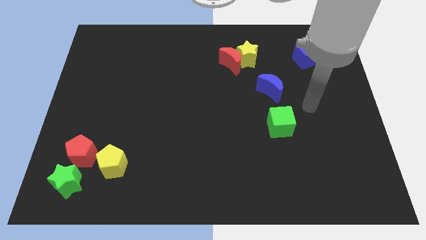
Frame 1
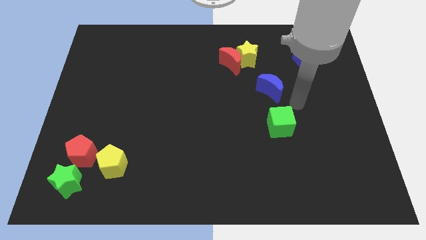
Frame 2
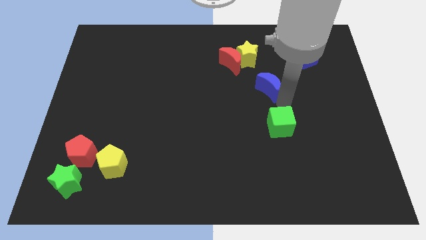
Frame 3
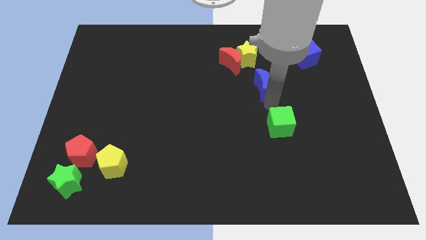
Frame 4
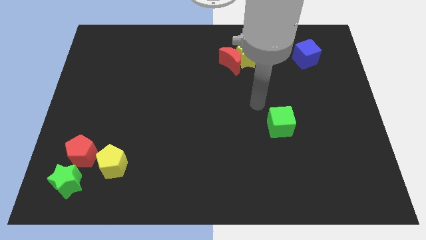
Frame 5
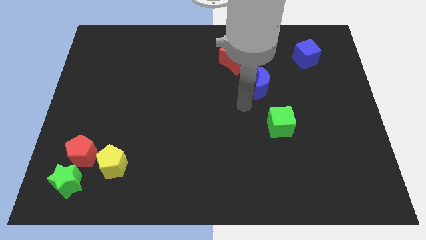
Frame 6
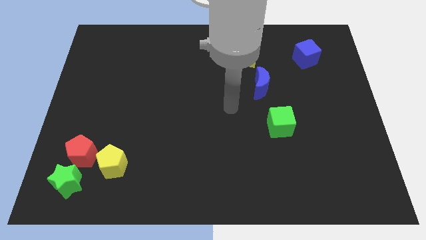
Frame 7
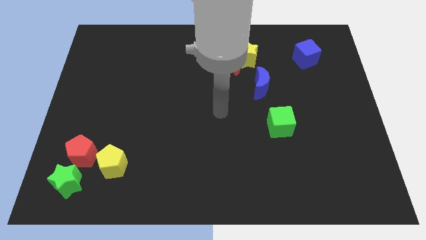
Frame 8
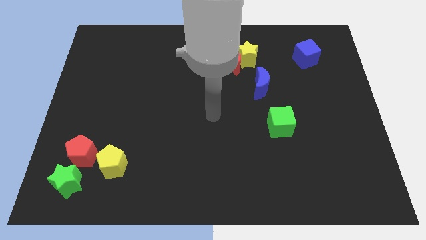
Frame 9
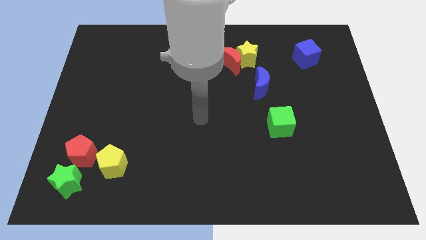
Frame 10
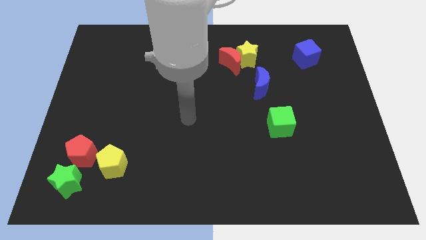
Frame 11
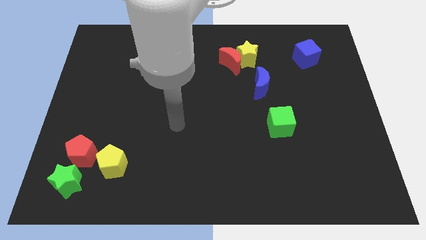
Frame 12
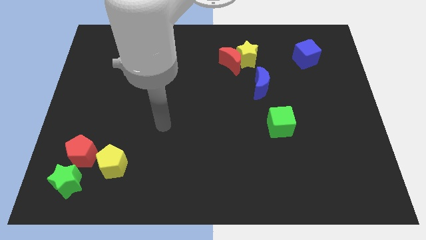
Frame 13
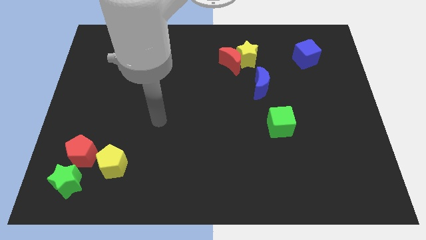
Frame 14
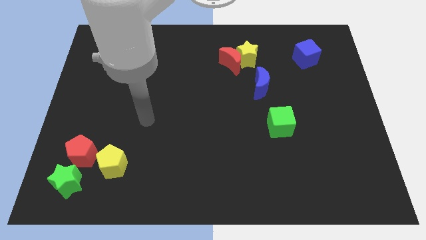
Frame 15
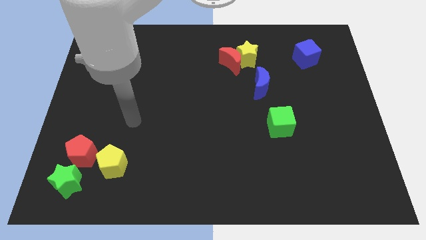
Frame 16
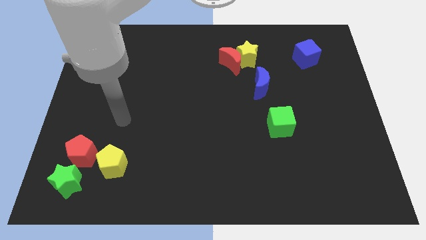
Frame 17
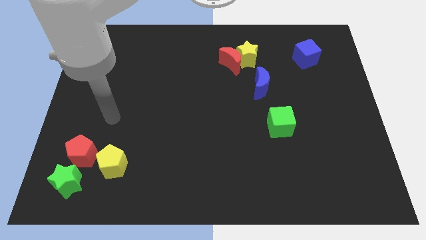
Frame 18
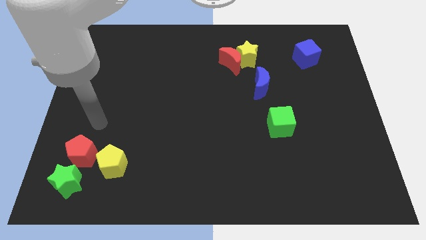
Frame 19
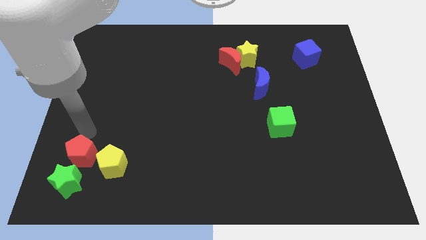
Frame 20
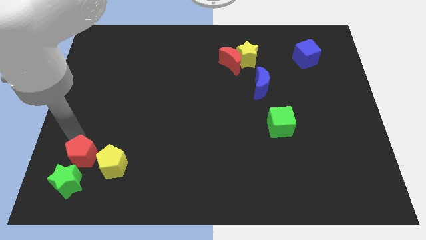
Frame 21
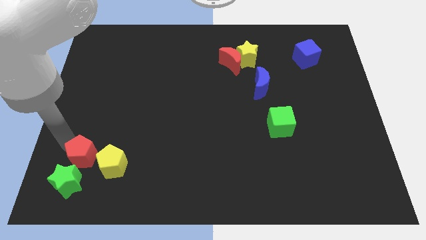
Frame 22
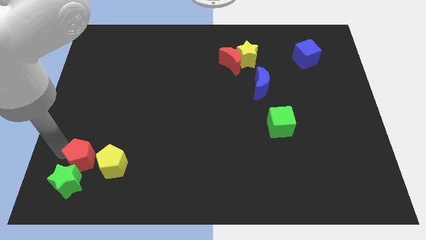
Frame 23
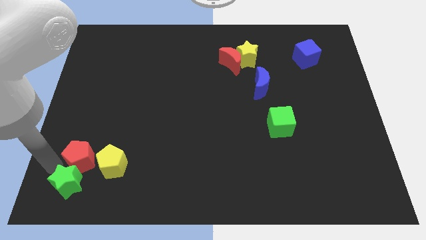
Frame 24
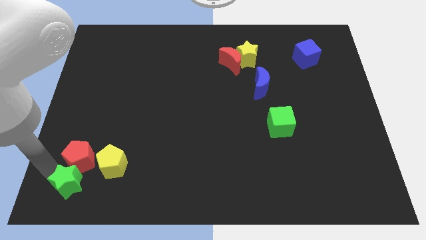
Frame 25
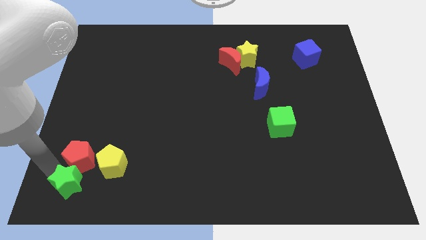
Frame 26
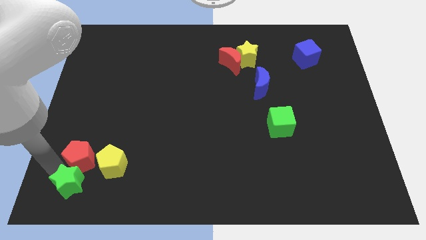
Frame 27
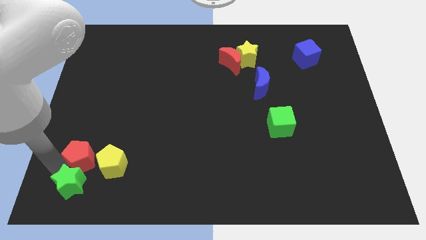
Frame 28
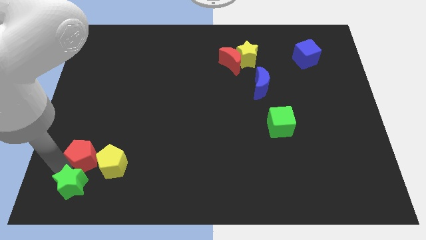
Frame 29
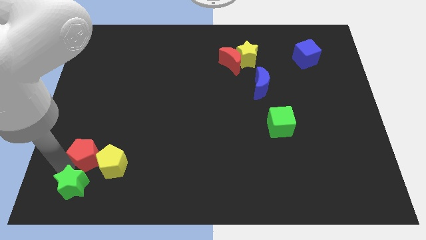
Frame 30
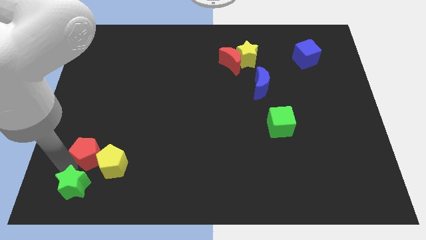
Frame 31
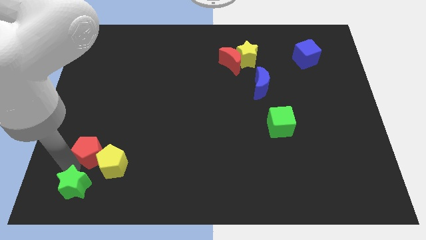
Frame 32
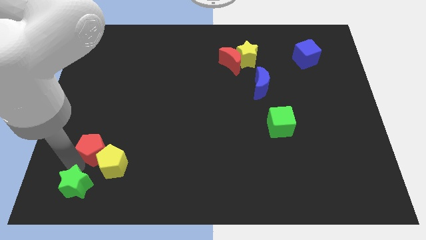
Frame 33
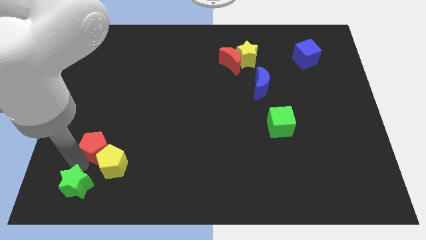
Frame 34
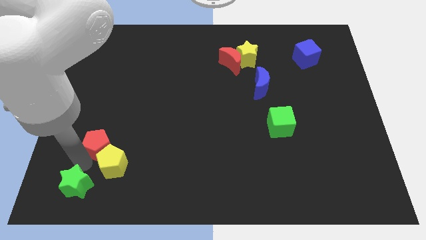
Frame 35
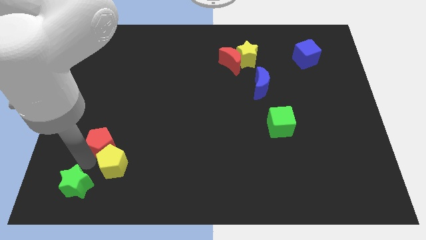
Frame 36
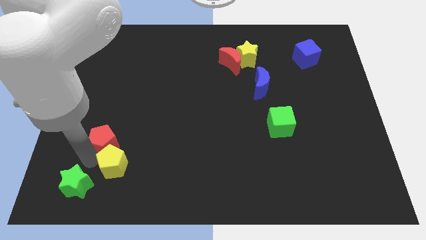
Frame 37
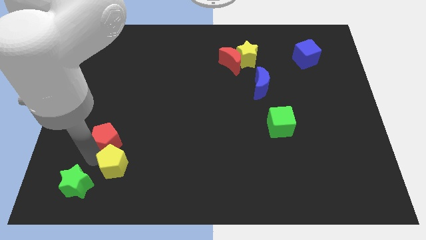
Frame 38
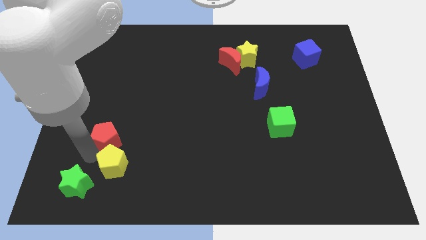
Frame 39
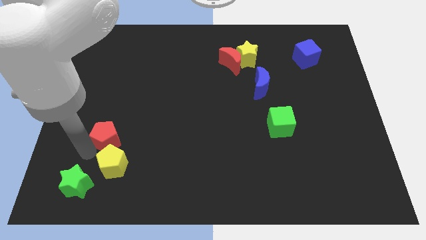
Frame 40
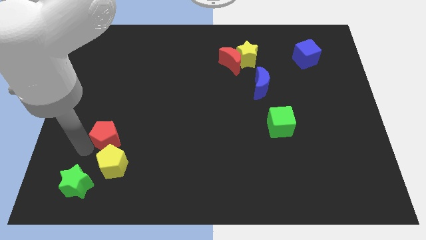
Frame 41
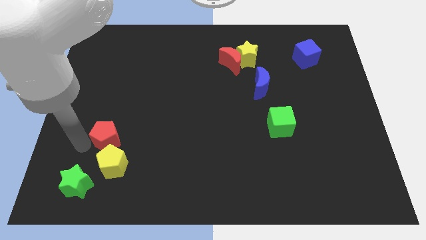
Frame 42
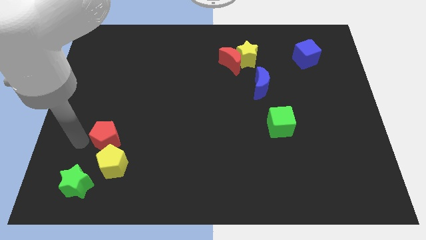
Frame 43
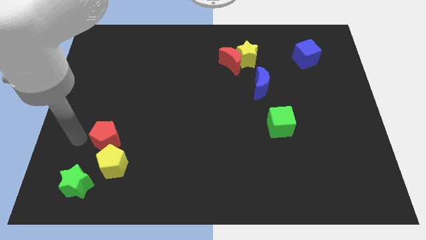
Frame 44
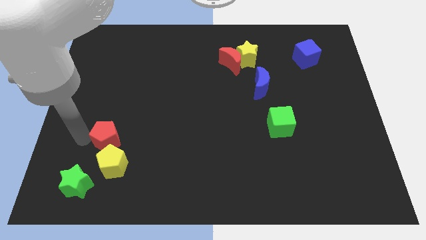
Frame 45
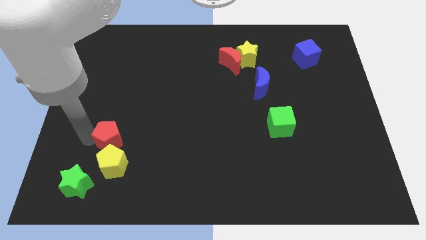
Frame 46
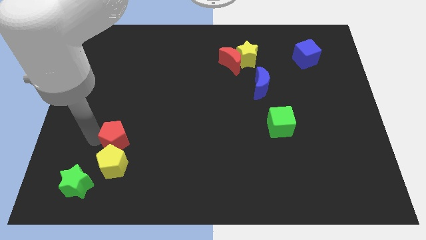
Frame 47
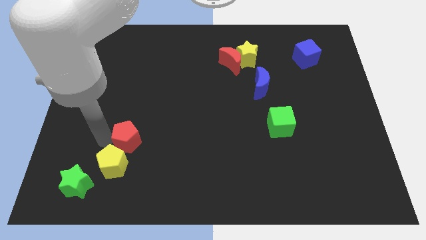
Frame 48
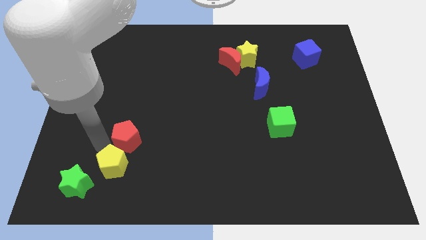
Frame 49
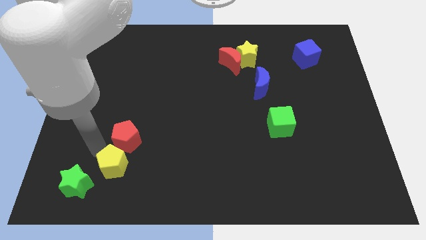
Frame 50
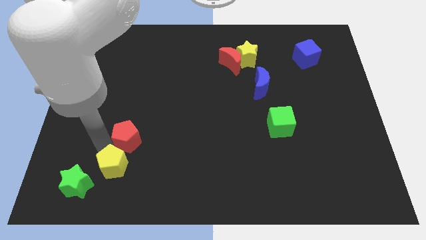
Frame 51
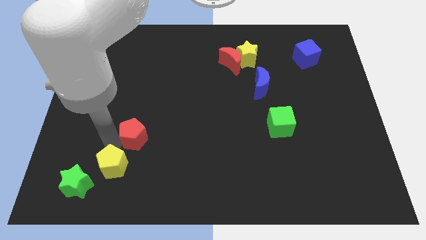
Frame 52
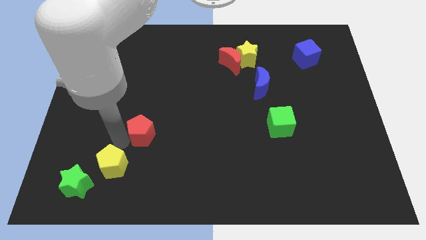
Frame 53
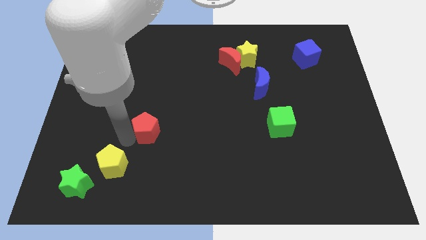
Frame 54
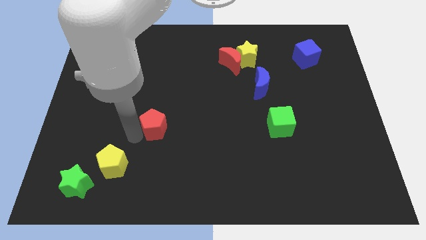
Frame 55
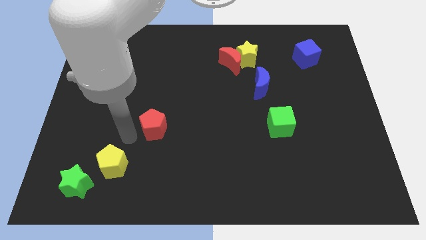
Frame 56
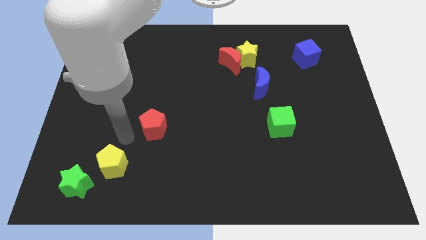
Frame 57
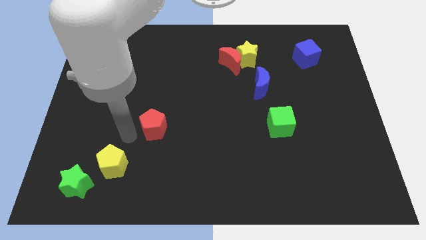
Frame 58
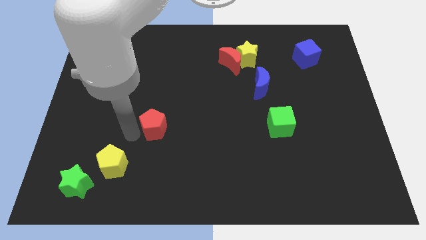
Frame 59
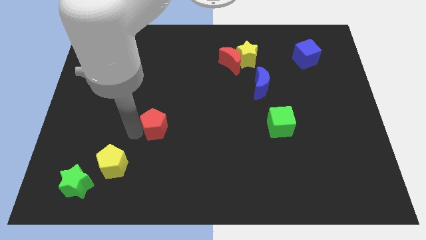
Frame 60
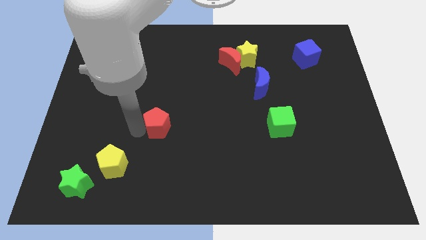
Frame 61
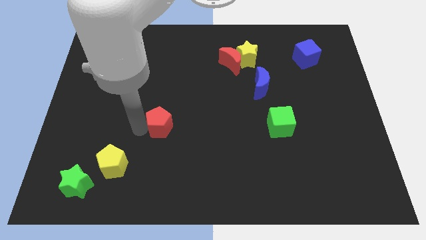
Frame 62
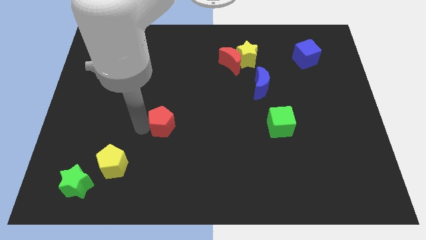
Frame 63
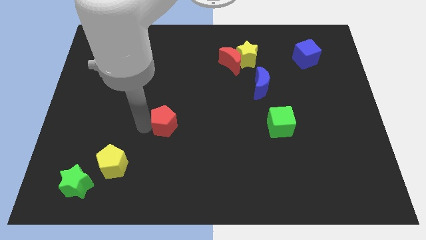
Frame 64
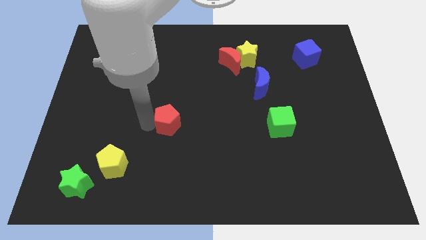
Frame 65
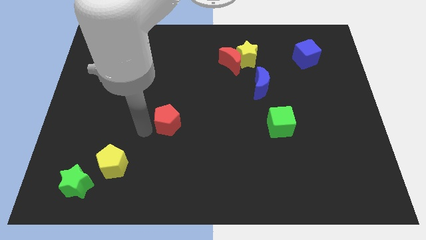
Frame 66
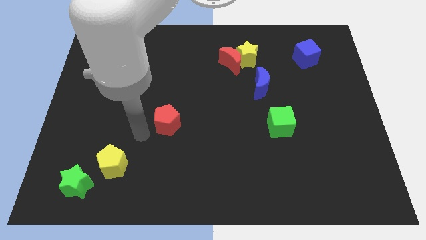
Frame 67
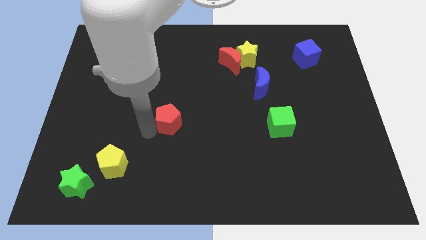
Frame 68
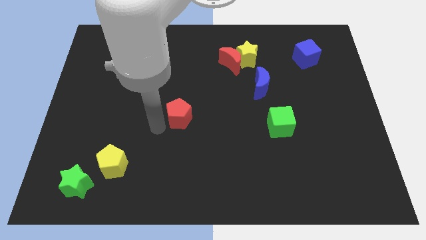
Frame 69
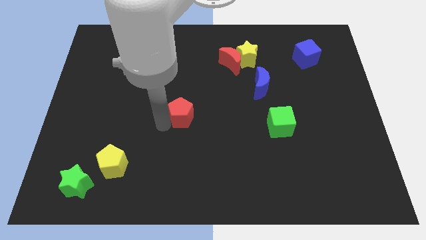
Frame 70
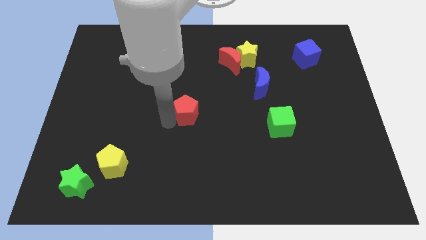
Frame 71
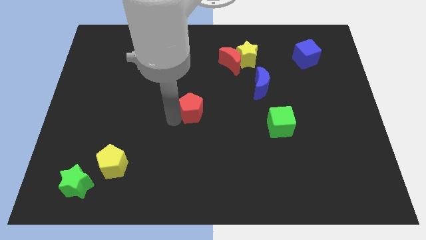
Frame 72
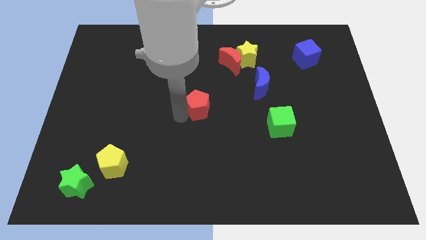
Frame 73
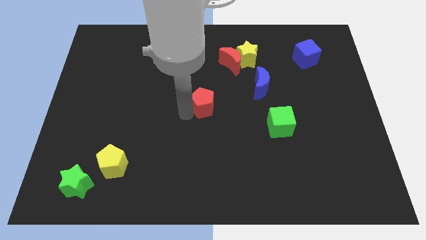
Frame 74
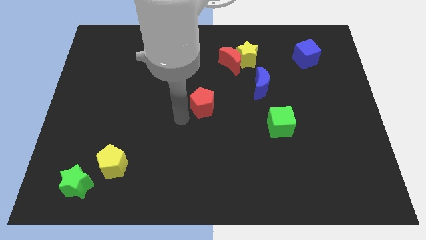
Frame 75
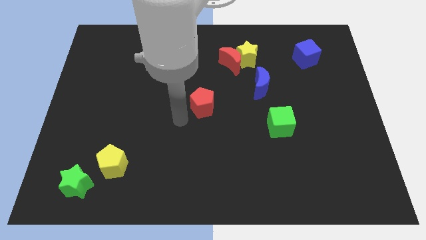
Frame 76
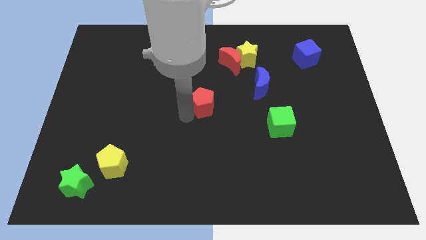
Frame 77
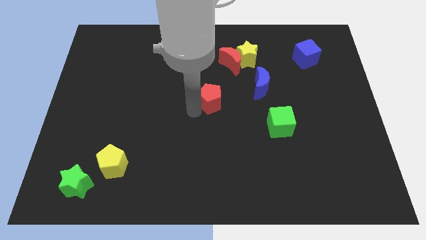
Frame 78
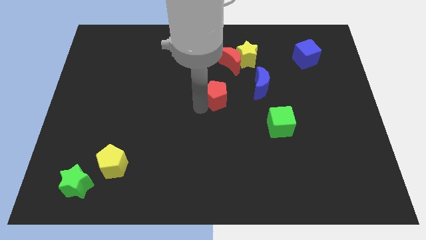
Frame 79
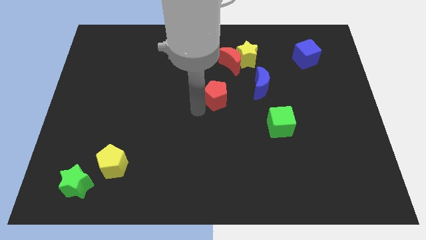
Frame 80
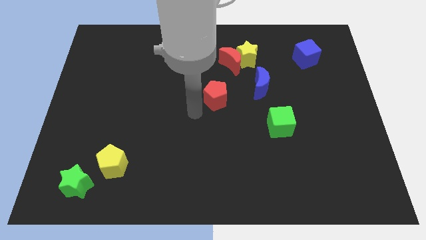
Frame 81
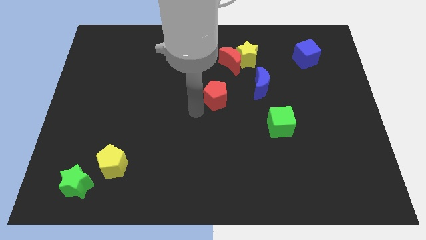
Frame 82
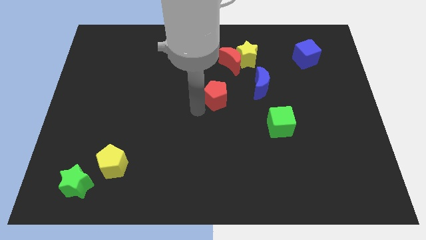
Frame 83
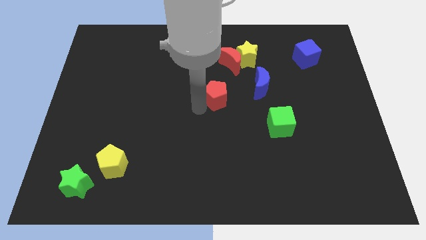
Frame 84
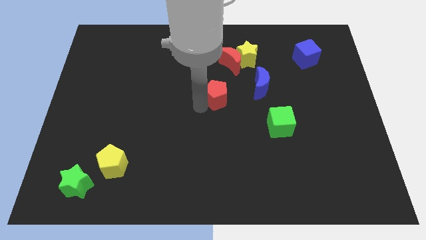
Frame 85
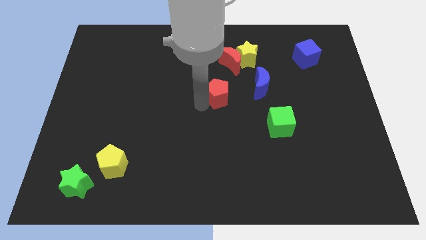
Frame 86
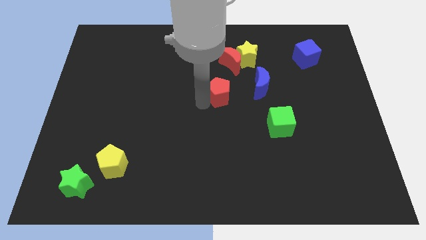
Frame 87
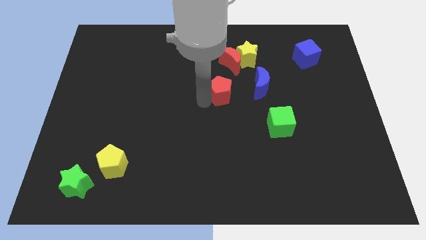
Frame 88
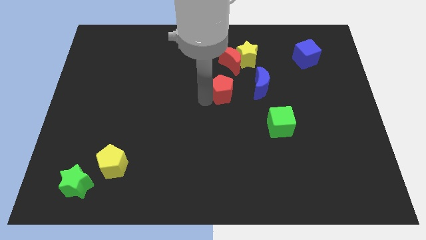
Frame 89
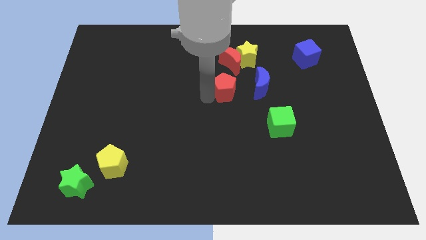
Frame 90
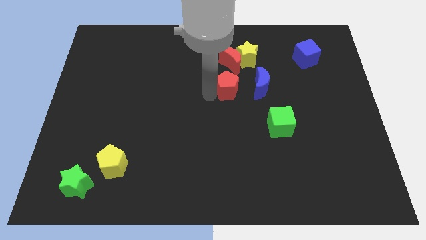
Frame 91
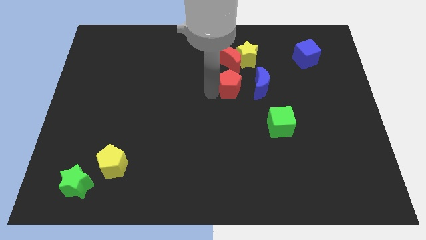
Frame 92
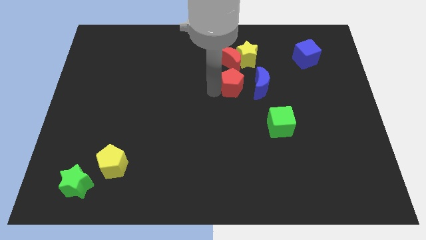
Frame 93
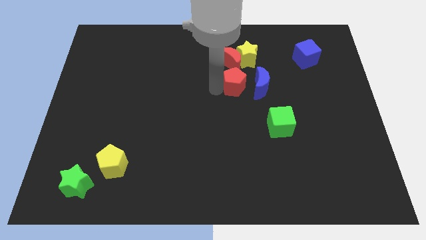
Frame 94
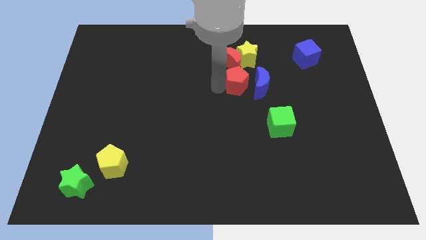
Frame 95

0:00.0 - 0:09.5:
slide the red pentagon to the bottom right side of the red moon
